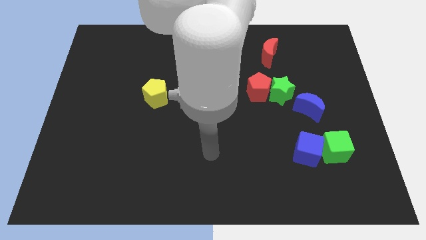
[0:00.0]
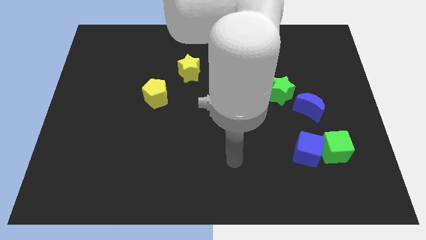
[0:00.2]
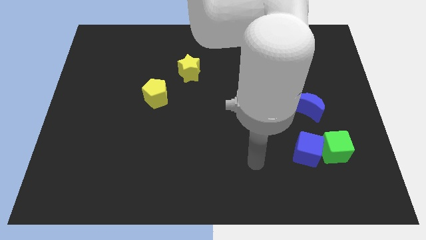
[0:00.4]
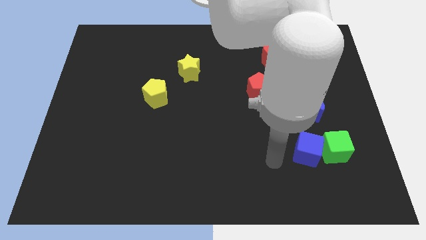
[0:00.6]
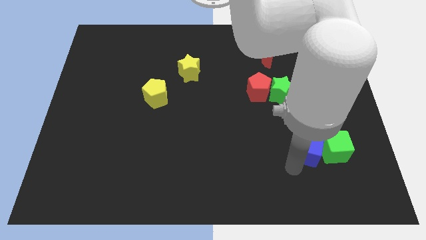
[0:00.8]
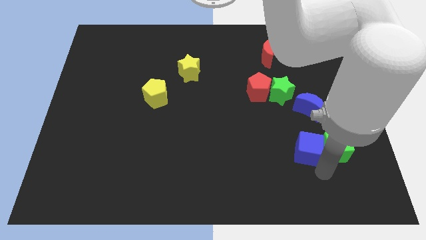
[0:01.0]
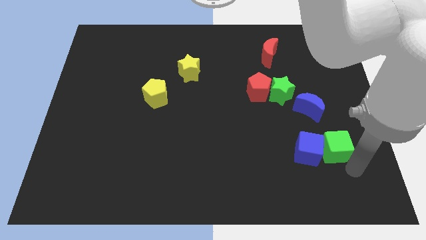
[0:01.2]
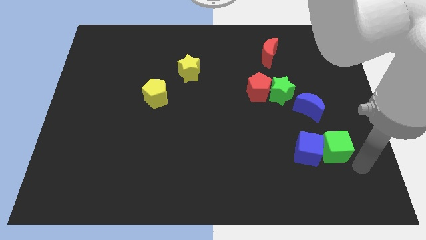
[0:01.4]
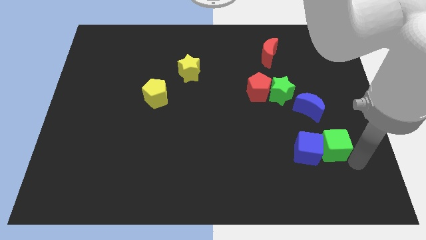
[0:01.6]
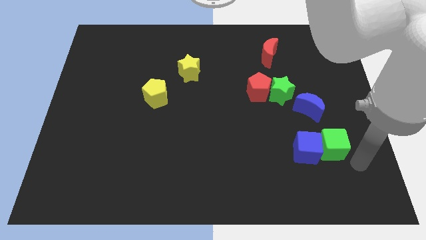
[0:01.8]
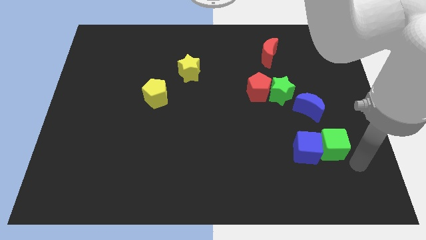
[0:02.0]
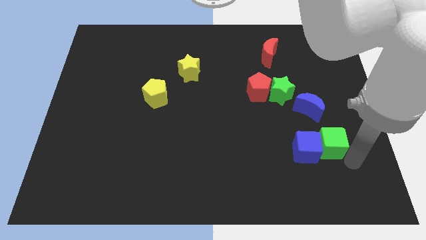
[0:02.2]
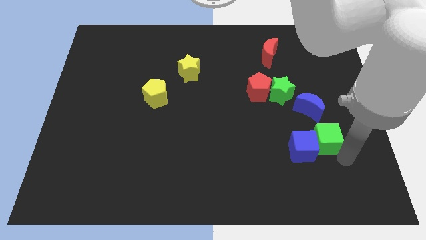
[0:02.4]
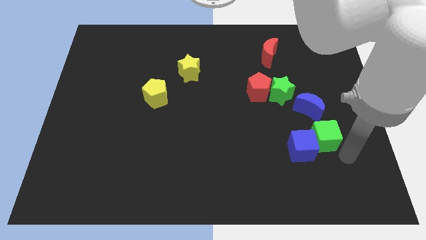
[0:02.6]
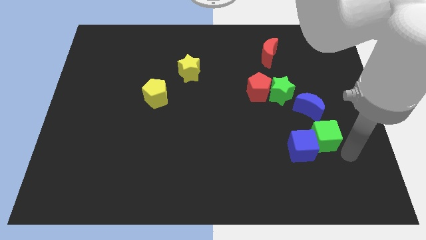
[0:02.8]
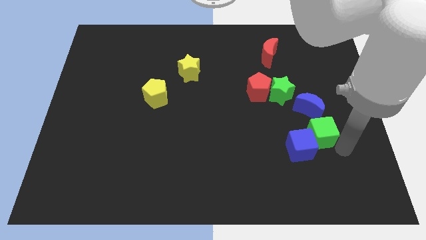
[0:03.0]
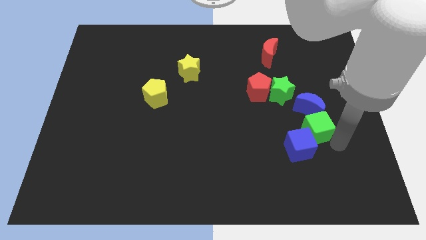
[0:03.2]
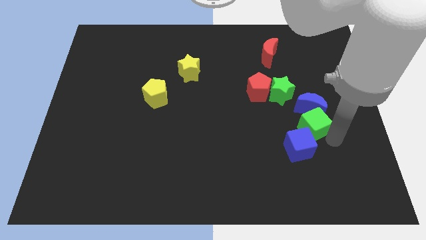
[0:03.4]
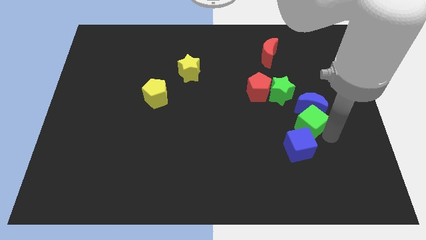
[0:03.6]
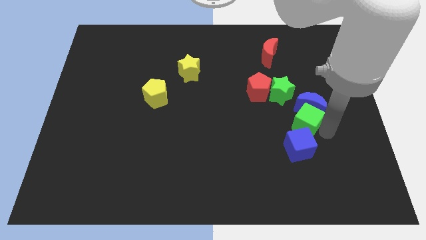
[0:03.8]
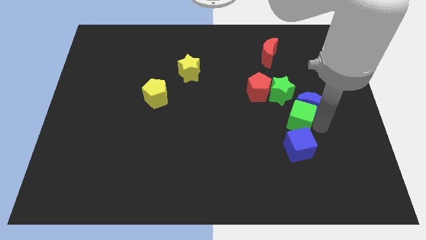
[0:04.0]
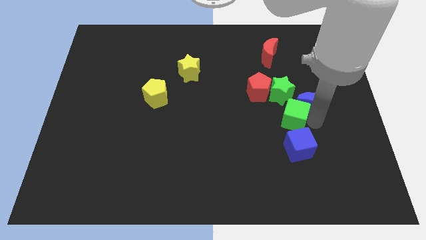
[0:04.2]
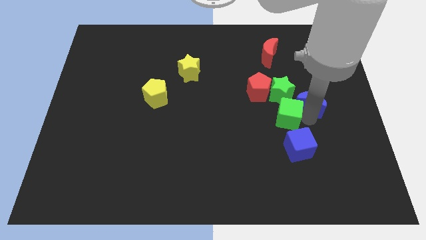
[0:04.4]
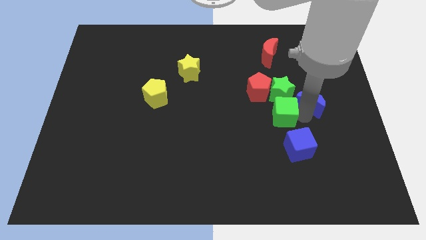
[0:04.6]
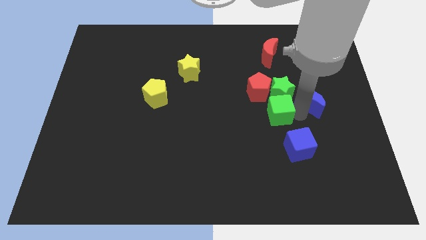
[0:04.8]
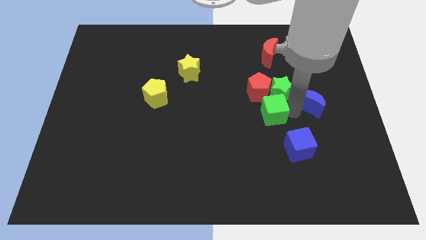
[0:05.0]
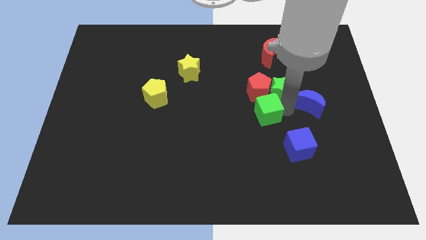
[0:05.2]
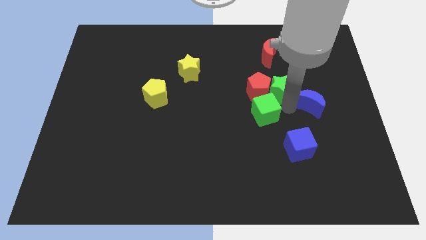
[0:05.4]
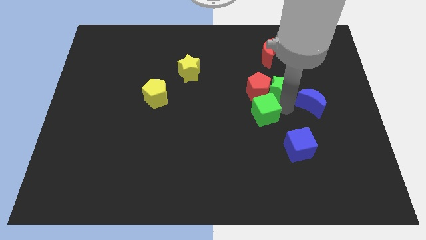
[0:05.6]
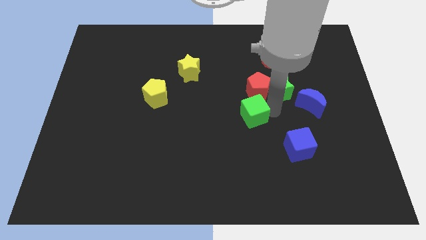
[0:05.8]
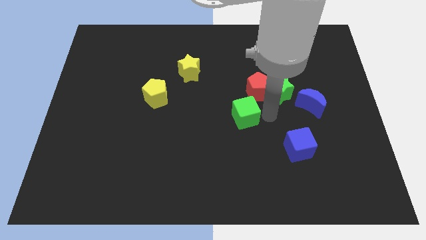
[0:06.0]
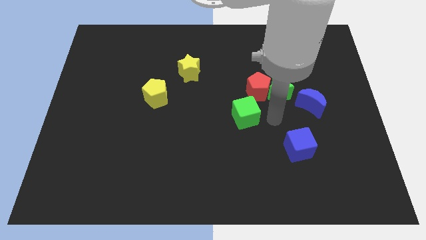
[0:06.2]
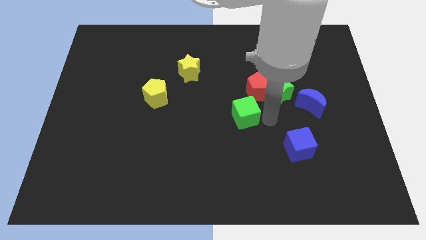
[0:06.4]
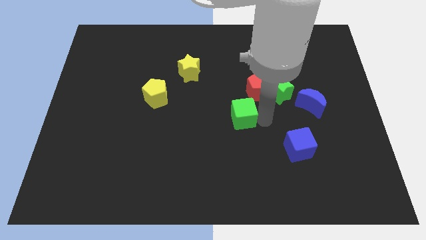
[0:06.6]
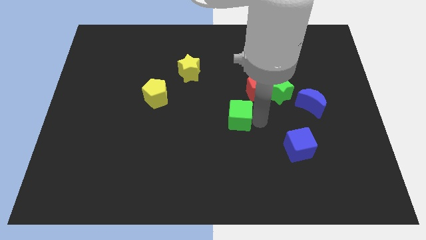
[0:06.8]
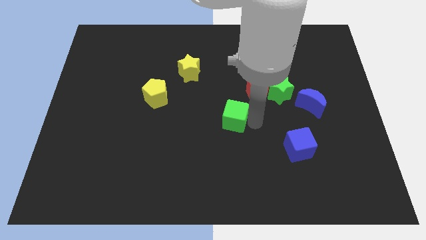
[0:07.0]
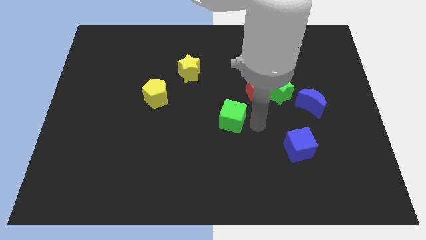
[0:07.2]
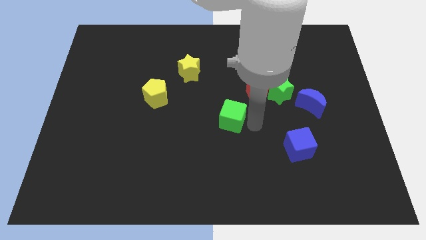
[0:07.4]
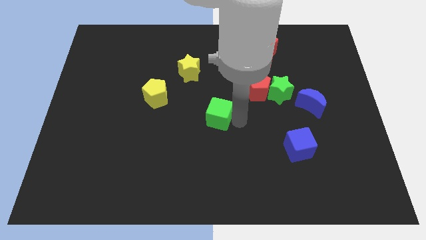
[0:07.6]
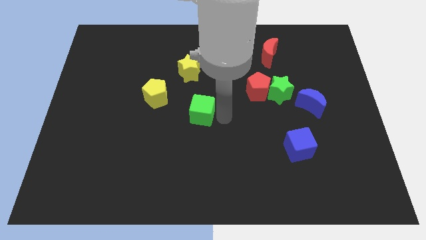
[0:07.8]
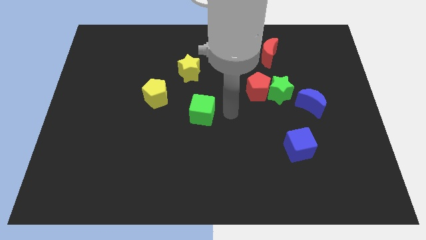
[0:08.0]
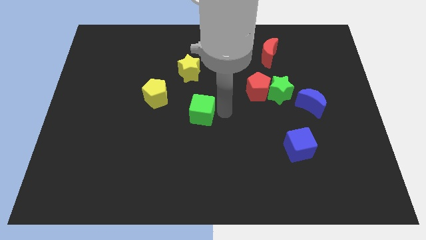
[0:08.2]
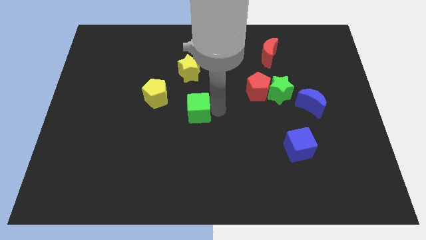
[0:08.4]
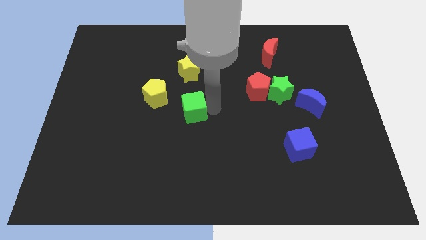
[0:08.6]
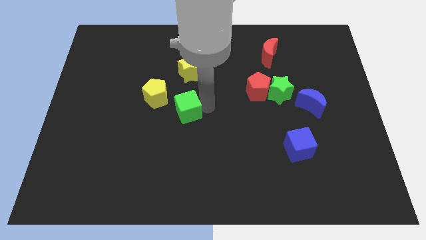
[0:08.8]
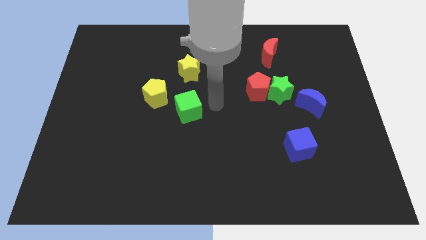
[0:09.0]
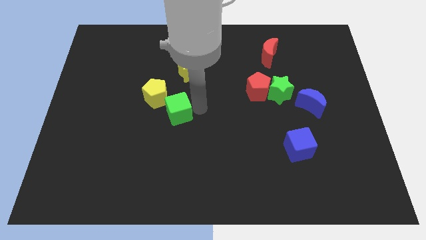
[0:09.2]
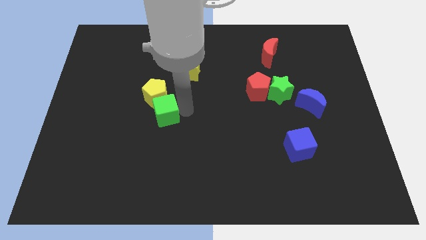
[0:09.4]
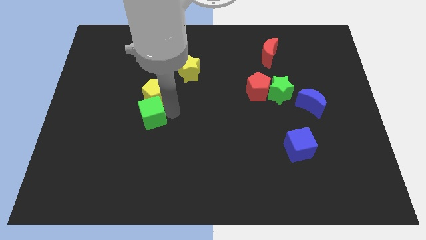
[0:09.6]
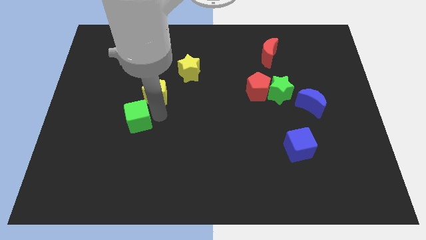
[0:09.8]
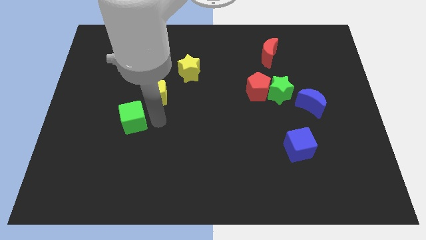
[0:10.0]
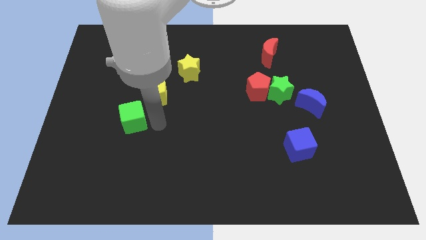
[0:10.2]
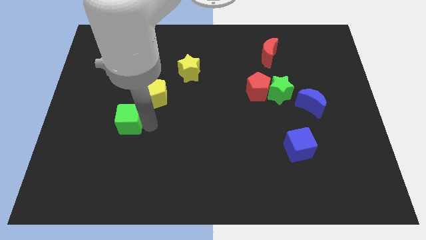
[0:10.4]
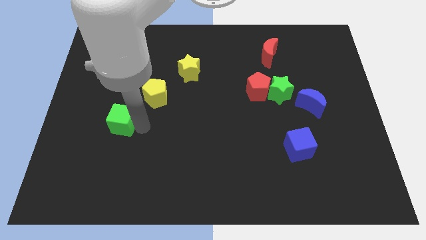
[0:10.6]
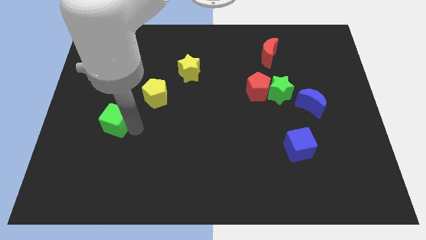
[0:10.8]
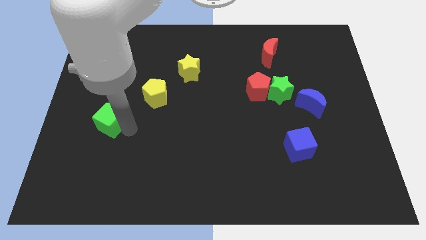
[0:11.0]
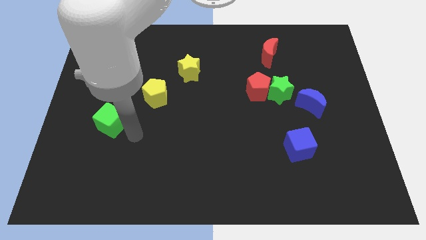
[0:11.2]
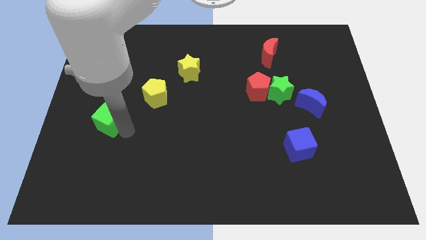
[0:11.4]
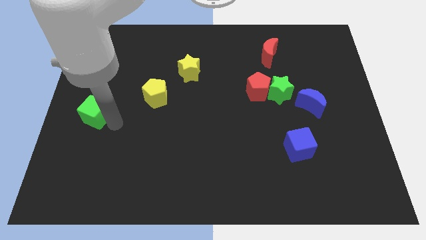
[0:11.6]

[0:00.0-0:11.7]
move the green cube to the left side of the board

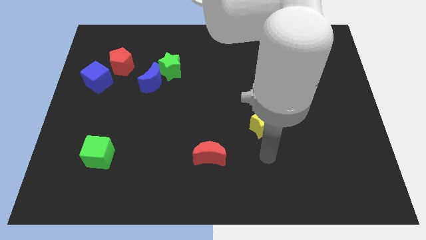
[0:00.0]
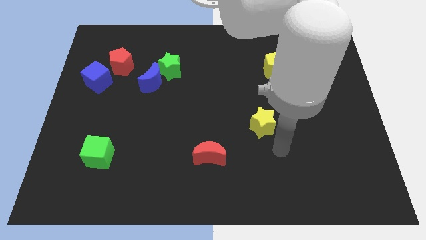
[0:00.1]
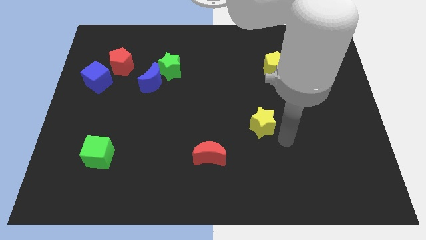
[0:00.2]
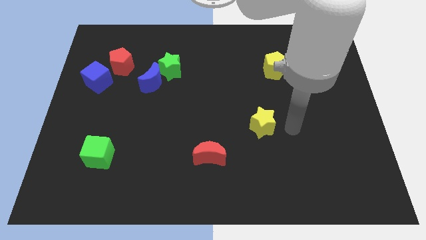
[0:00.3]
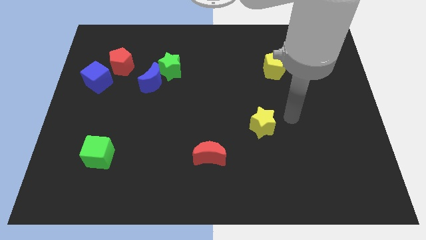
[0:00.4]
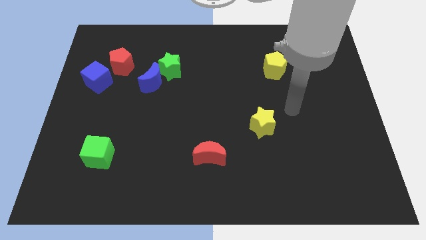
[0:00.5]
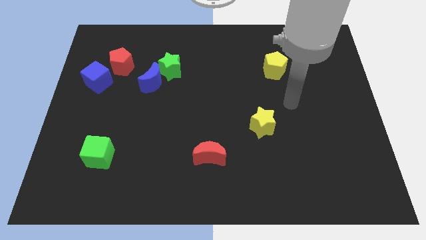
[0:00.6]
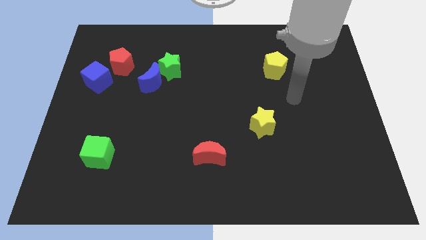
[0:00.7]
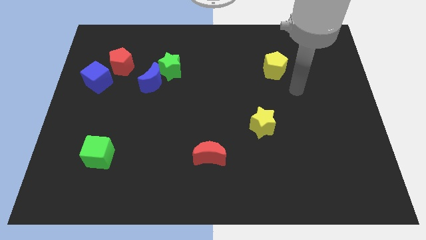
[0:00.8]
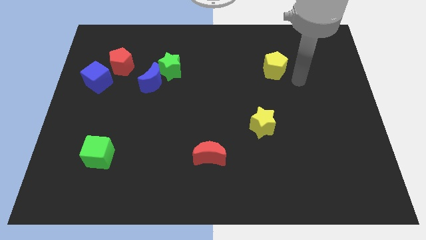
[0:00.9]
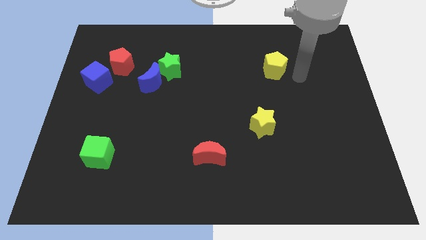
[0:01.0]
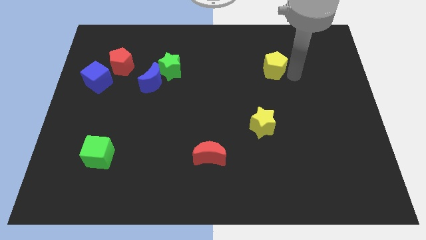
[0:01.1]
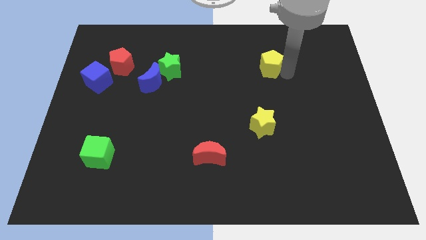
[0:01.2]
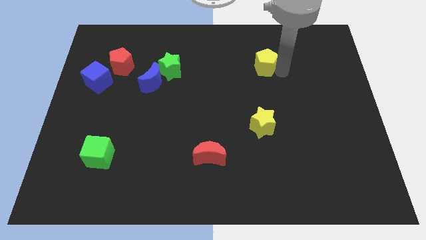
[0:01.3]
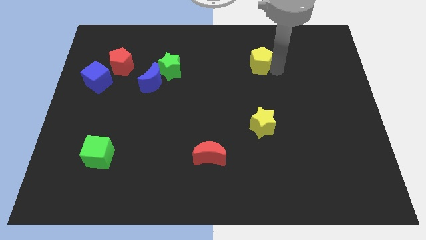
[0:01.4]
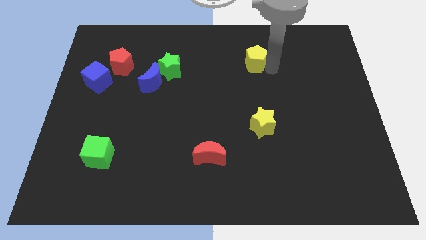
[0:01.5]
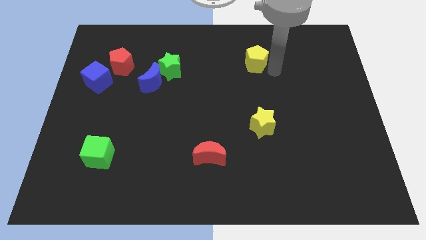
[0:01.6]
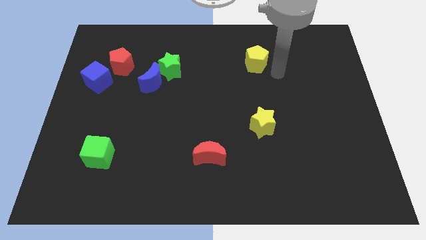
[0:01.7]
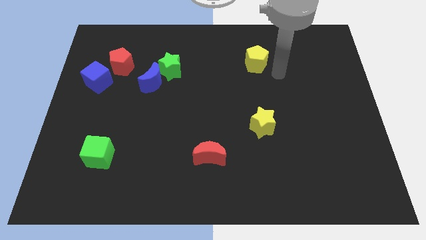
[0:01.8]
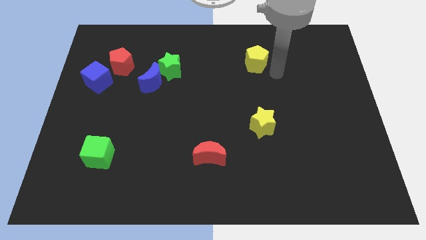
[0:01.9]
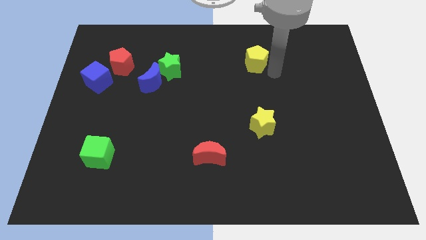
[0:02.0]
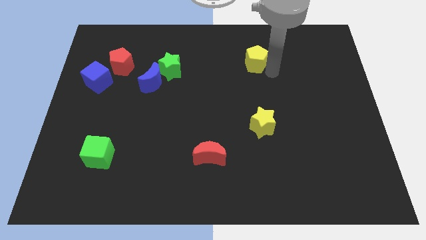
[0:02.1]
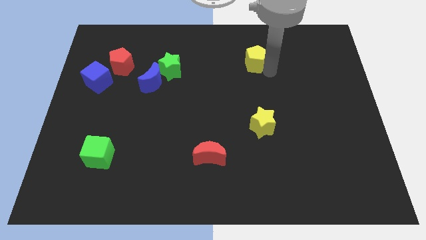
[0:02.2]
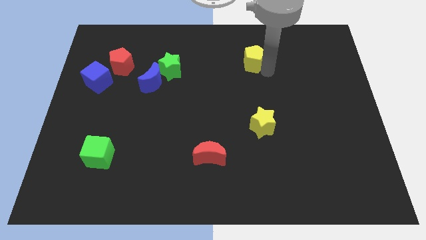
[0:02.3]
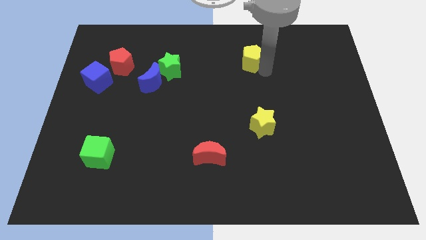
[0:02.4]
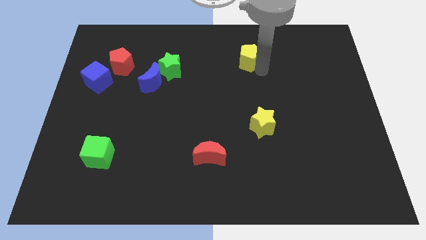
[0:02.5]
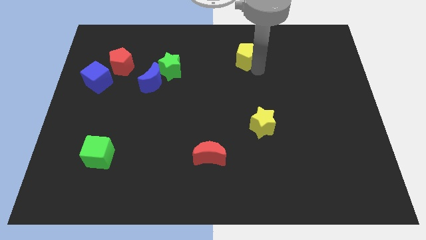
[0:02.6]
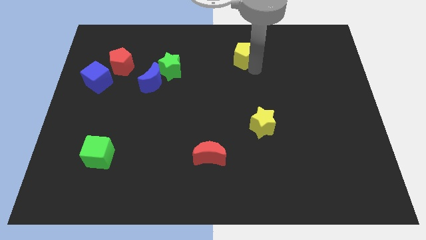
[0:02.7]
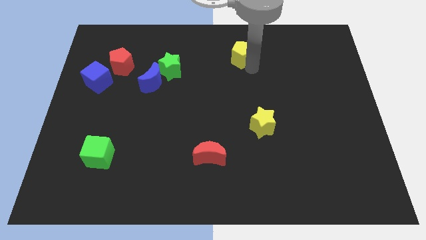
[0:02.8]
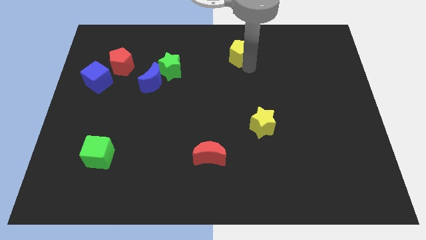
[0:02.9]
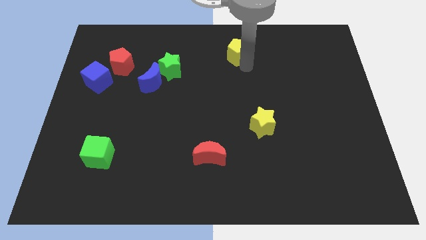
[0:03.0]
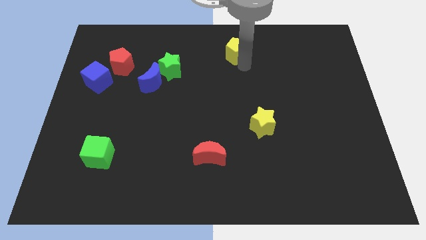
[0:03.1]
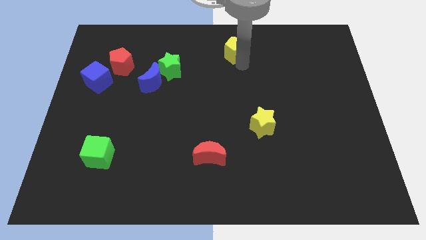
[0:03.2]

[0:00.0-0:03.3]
slide the yellow pentagon to the top
